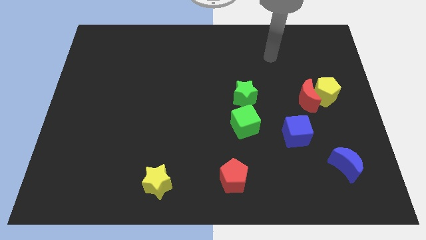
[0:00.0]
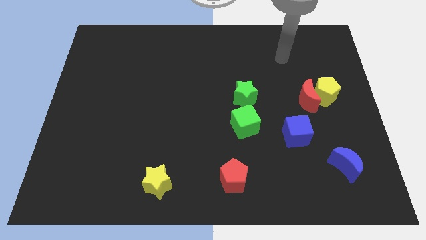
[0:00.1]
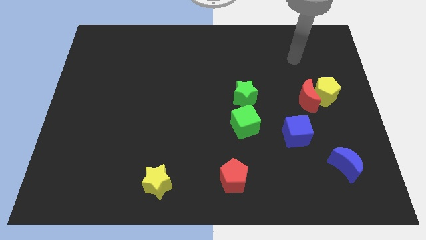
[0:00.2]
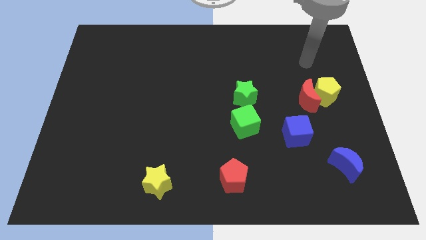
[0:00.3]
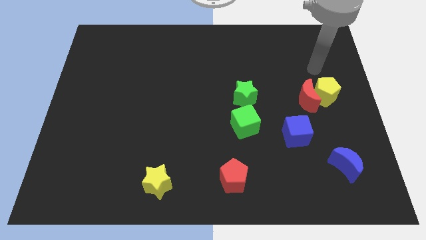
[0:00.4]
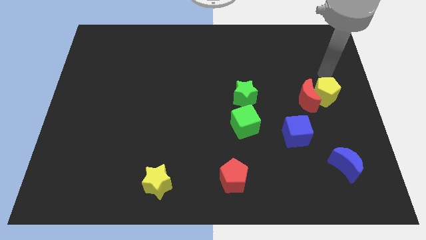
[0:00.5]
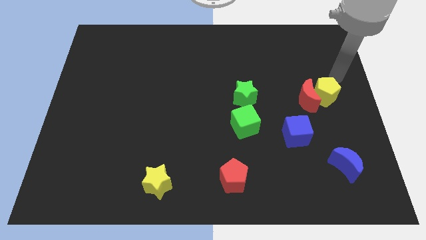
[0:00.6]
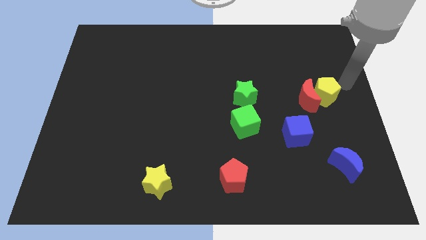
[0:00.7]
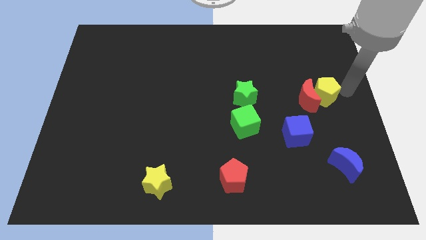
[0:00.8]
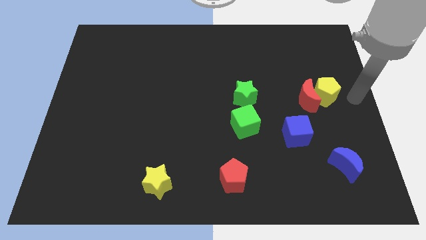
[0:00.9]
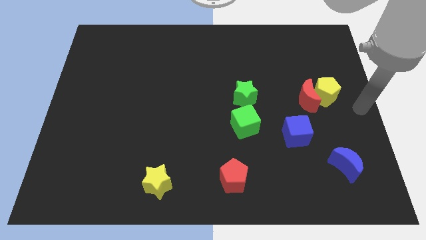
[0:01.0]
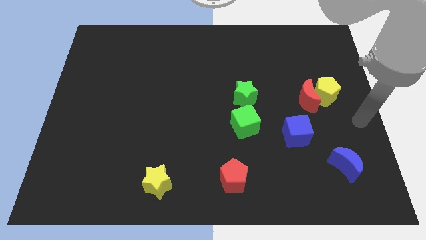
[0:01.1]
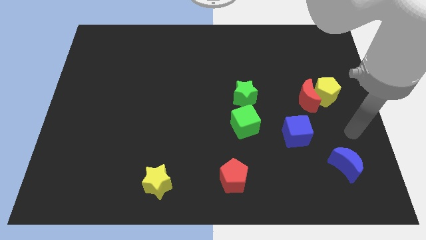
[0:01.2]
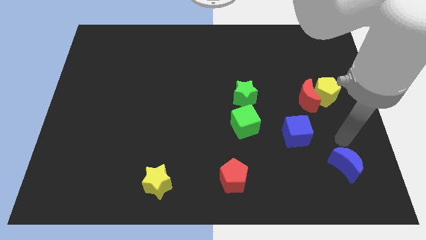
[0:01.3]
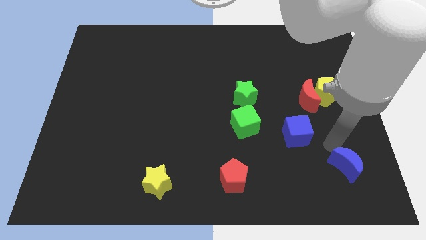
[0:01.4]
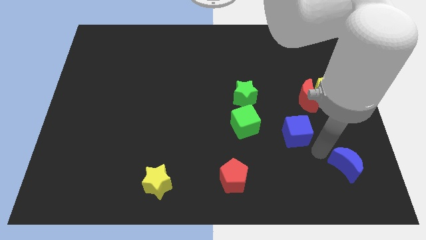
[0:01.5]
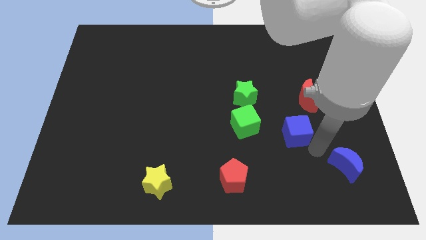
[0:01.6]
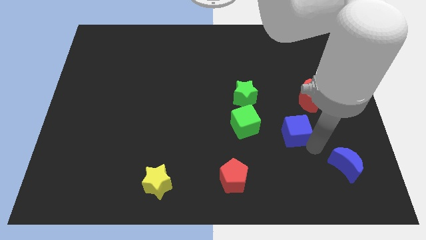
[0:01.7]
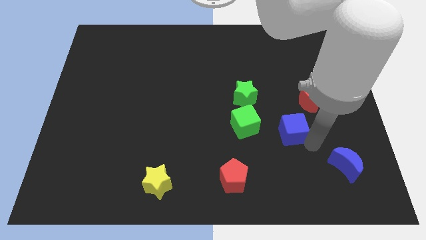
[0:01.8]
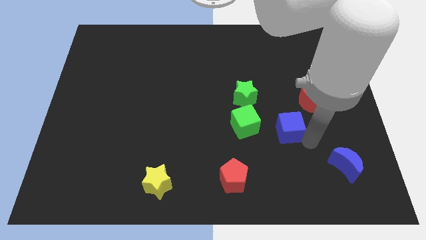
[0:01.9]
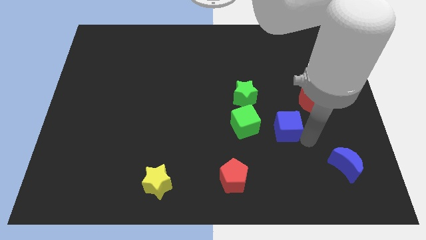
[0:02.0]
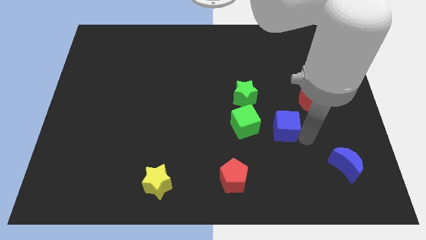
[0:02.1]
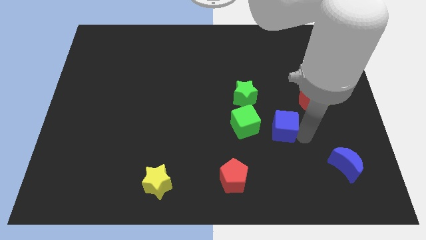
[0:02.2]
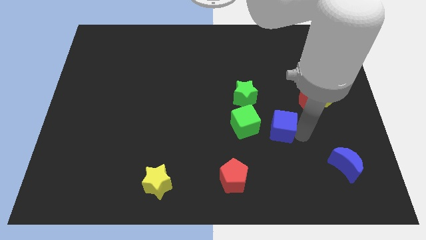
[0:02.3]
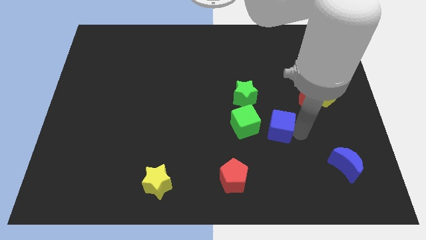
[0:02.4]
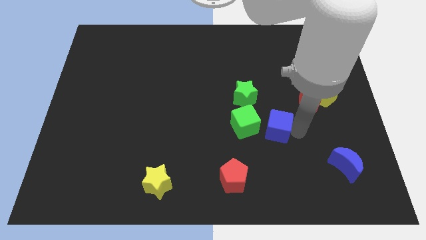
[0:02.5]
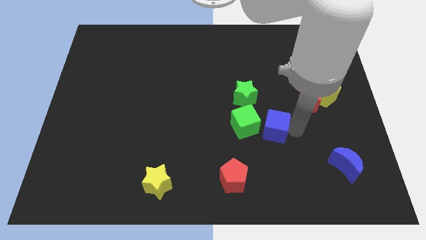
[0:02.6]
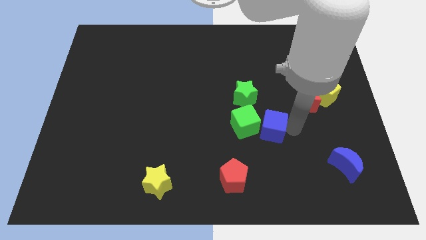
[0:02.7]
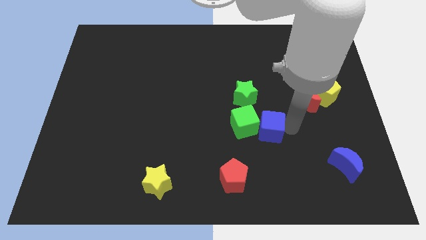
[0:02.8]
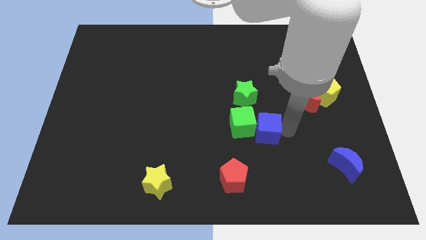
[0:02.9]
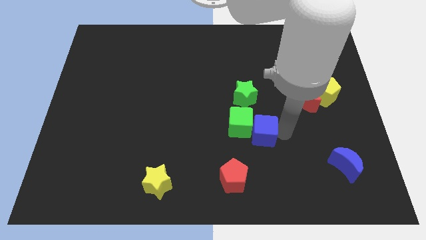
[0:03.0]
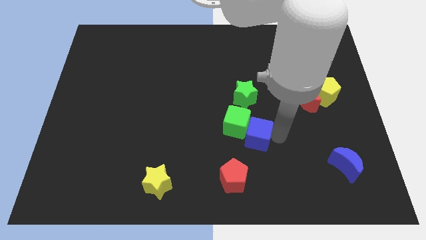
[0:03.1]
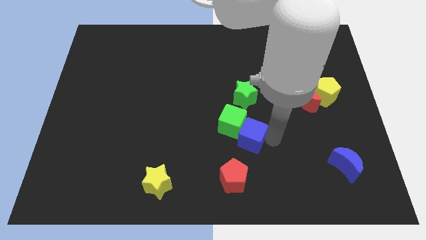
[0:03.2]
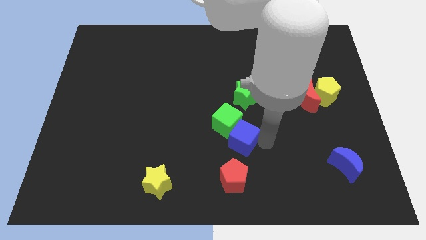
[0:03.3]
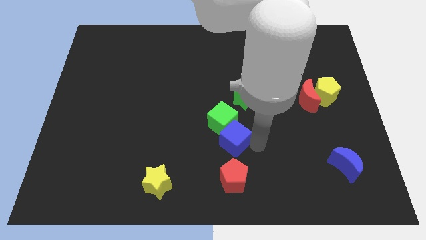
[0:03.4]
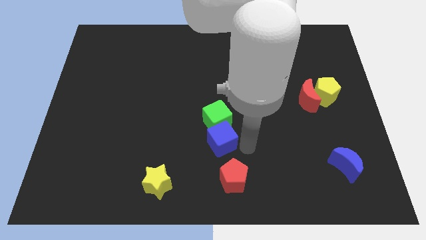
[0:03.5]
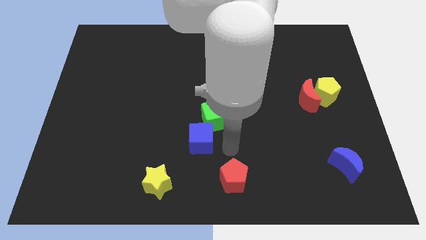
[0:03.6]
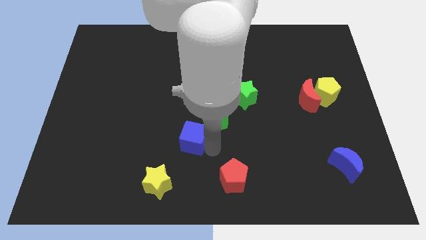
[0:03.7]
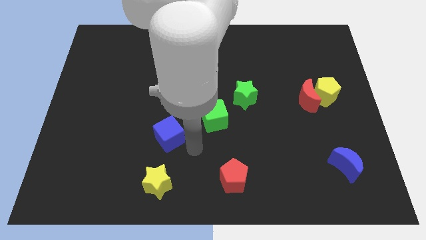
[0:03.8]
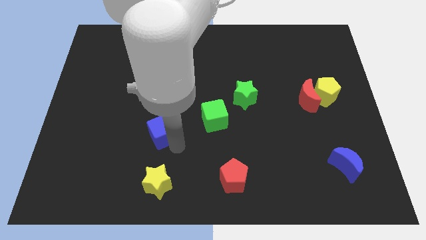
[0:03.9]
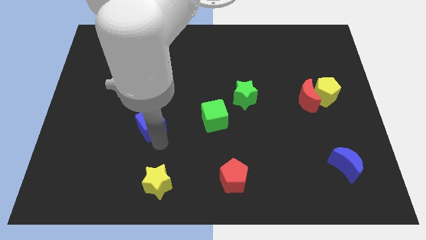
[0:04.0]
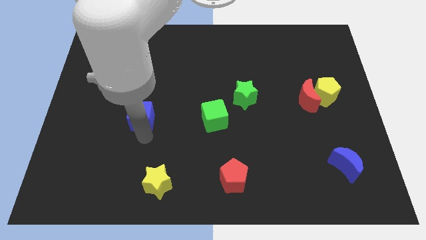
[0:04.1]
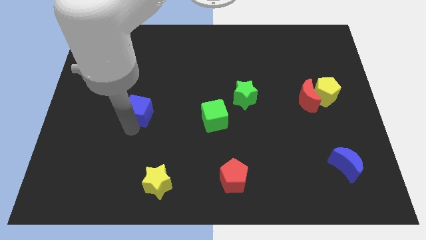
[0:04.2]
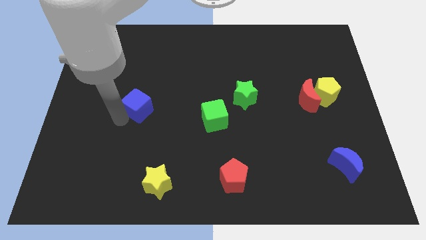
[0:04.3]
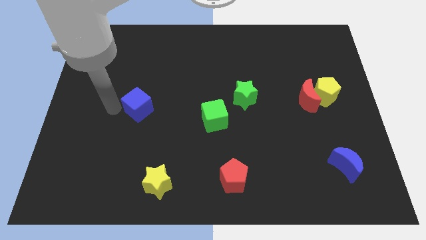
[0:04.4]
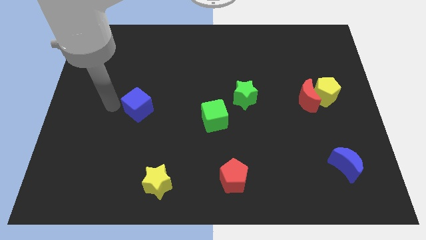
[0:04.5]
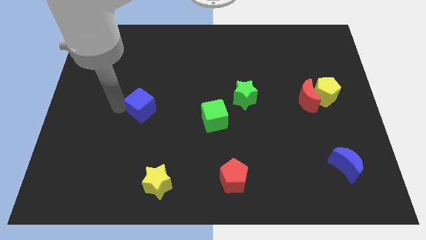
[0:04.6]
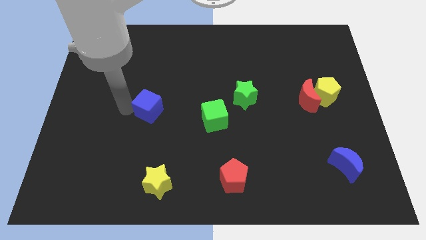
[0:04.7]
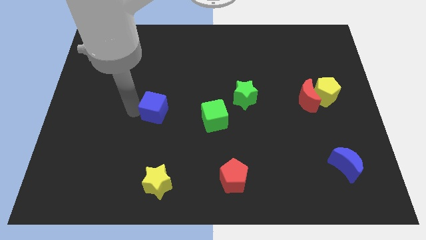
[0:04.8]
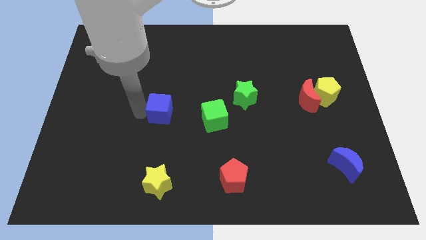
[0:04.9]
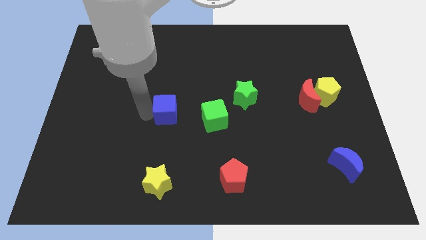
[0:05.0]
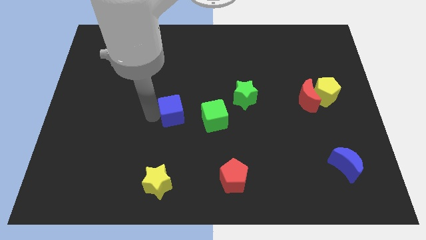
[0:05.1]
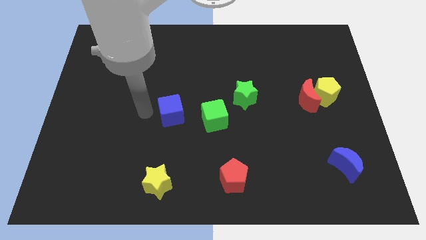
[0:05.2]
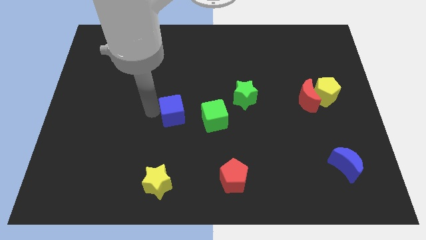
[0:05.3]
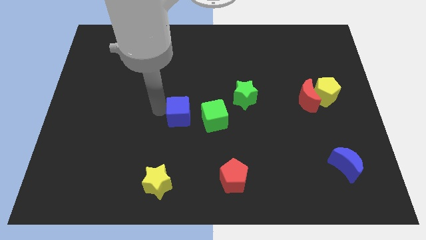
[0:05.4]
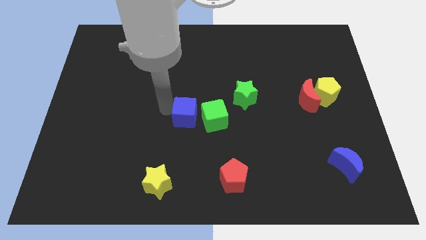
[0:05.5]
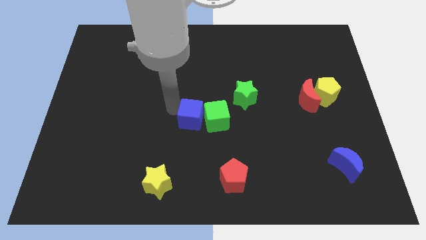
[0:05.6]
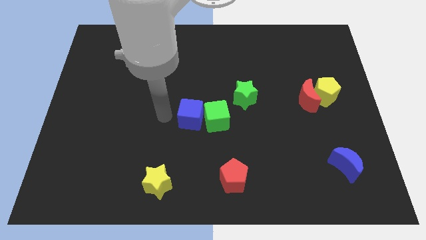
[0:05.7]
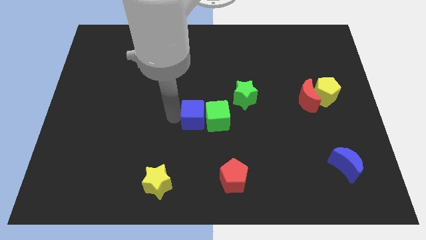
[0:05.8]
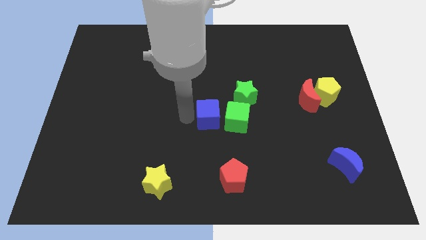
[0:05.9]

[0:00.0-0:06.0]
slightly push the blue cube up and then to the left

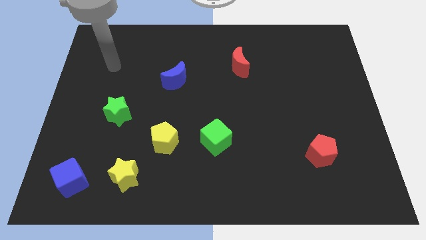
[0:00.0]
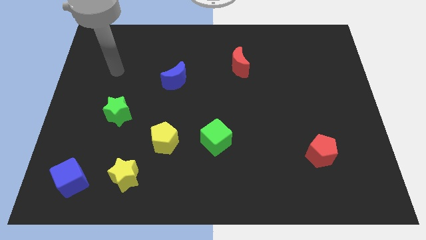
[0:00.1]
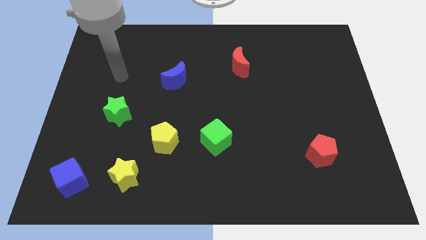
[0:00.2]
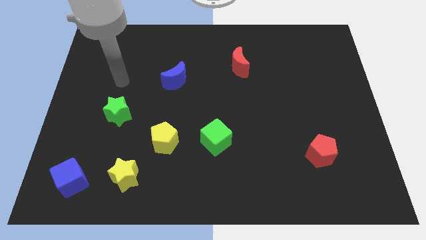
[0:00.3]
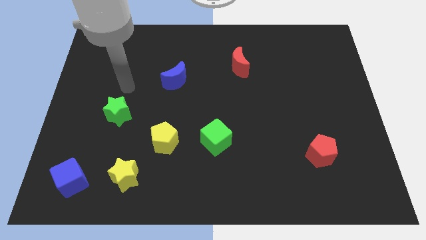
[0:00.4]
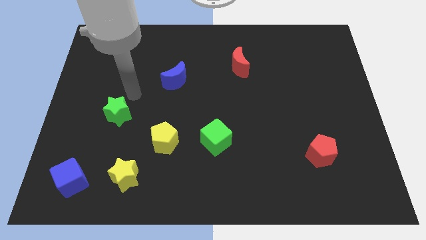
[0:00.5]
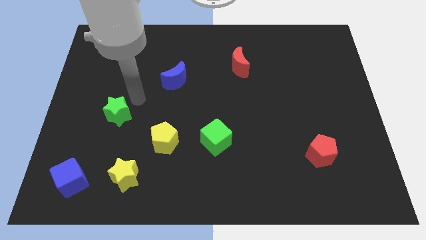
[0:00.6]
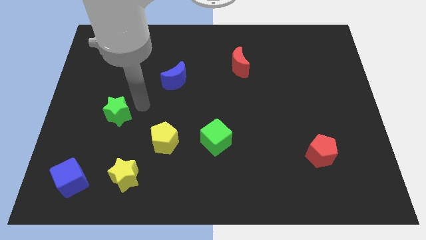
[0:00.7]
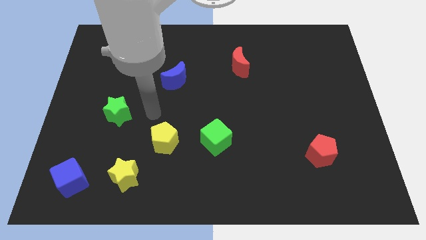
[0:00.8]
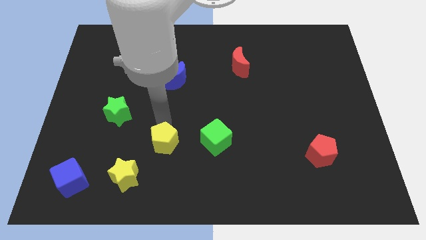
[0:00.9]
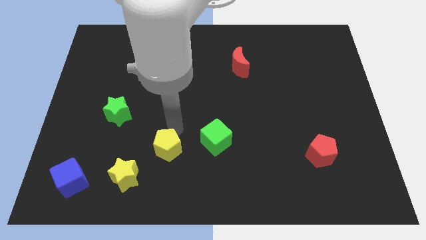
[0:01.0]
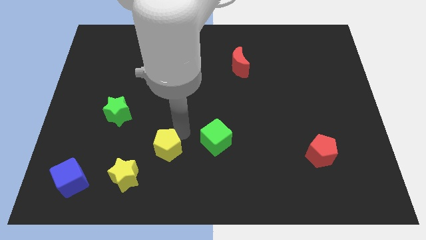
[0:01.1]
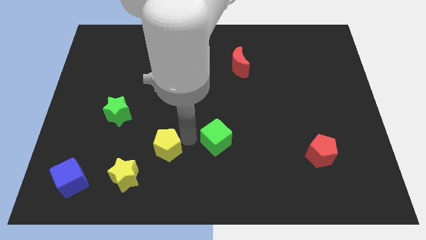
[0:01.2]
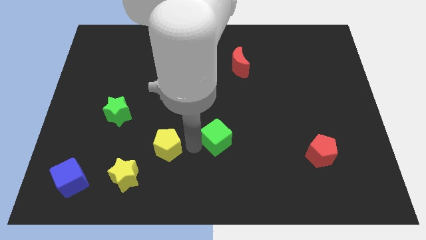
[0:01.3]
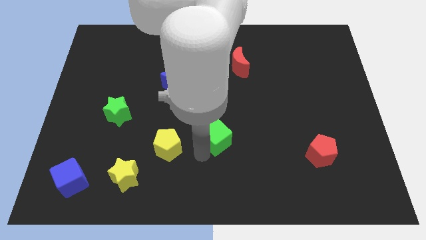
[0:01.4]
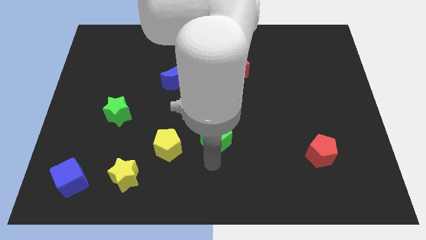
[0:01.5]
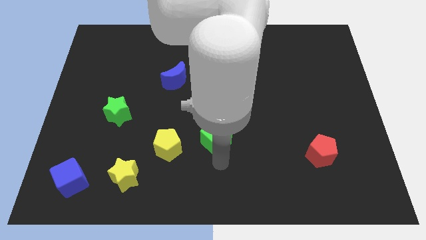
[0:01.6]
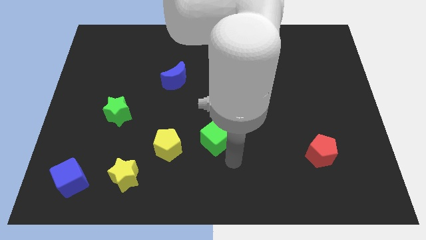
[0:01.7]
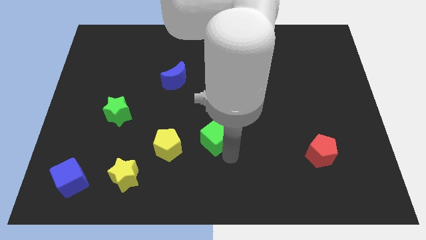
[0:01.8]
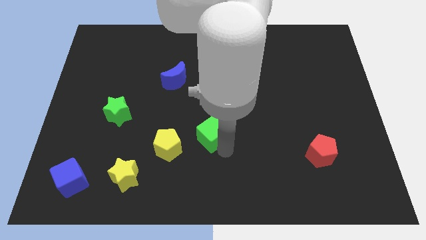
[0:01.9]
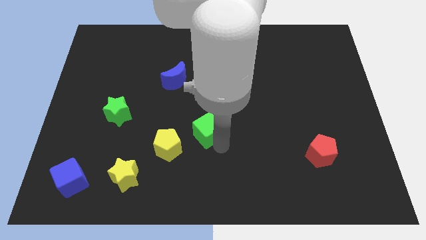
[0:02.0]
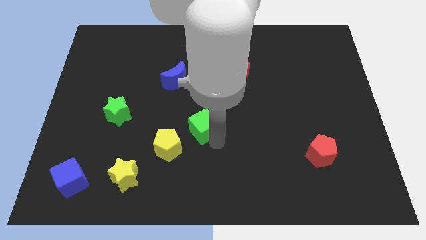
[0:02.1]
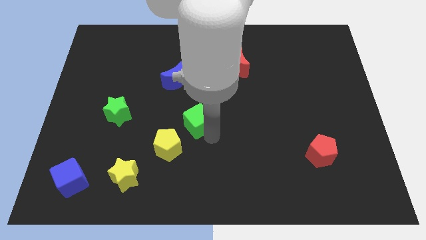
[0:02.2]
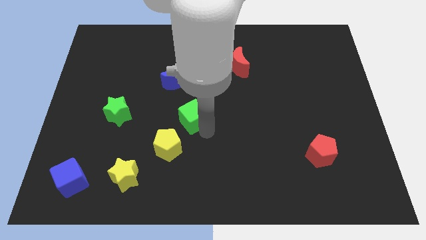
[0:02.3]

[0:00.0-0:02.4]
move the green cube slightly upwards and to the left

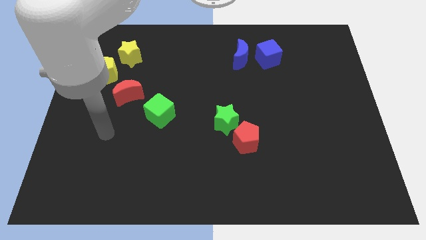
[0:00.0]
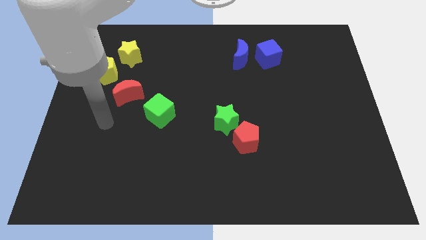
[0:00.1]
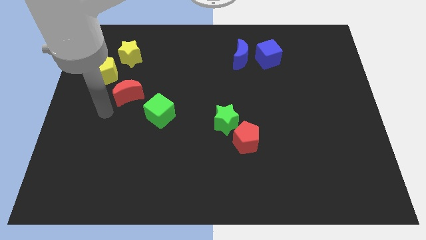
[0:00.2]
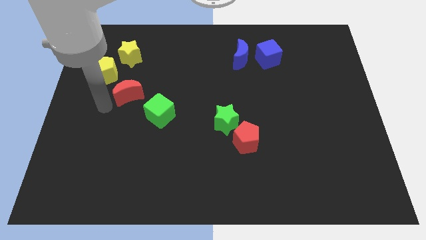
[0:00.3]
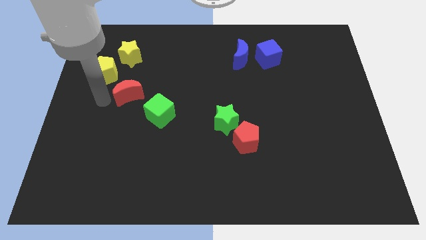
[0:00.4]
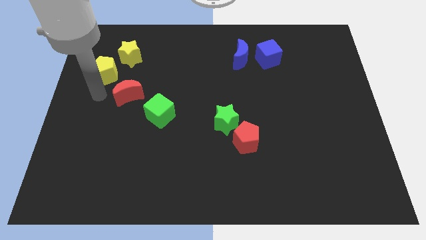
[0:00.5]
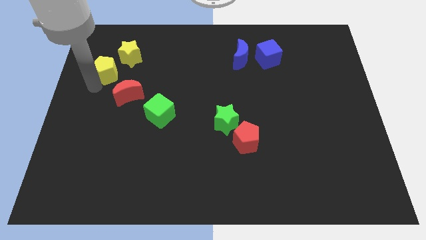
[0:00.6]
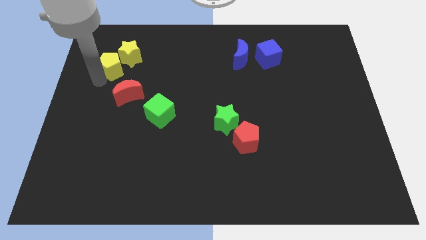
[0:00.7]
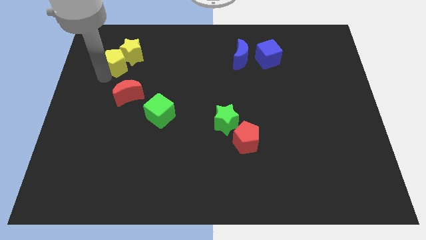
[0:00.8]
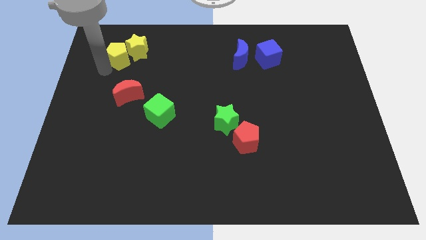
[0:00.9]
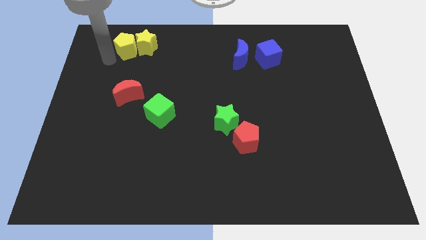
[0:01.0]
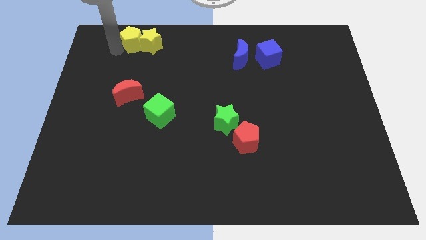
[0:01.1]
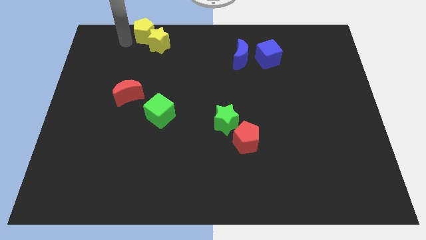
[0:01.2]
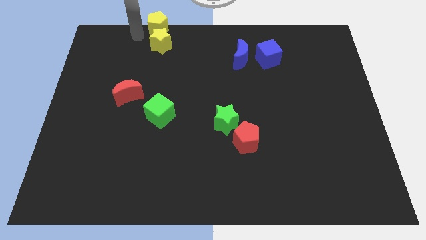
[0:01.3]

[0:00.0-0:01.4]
slightly slide the yellow star right
